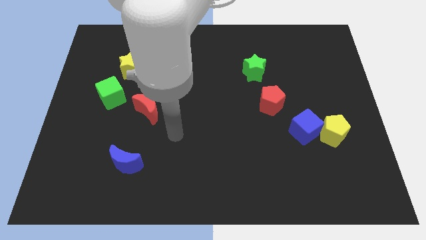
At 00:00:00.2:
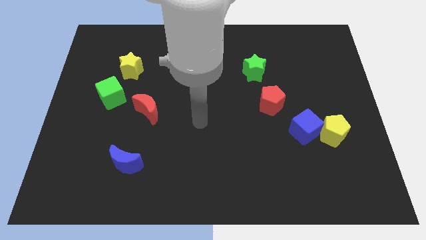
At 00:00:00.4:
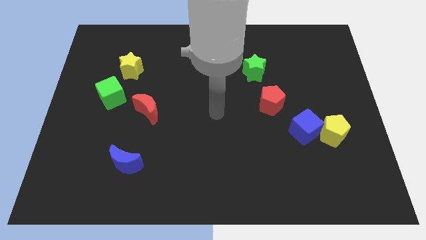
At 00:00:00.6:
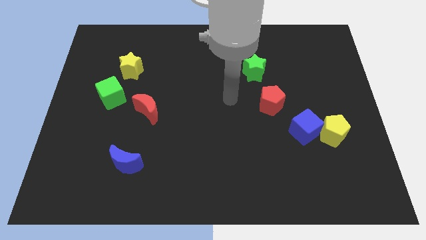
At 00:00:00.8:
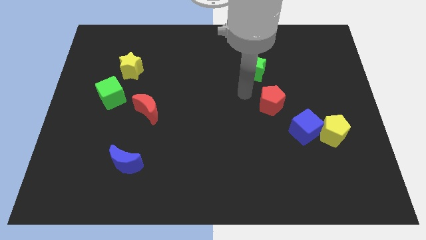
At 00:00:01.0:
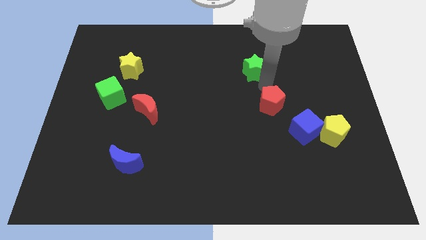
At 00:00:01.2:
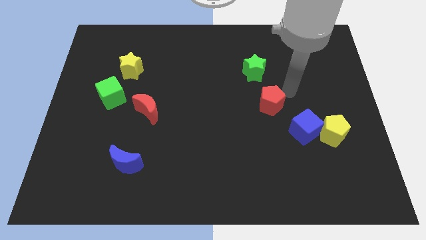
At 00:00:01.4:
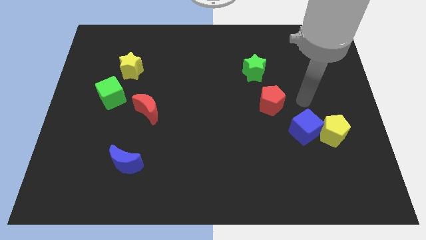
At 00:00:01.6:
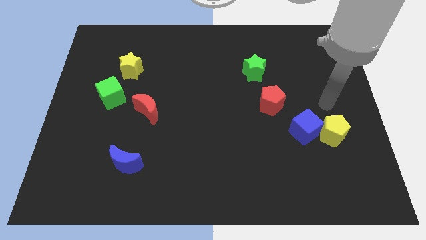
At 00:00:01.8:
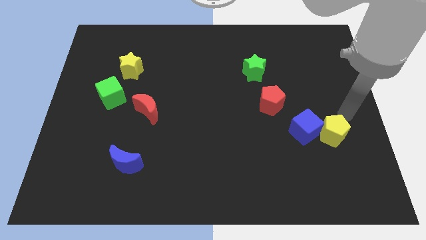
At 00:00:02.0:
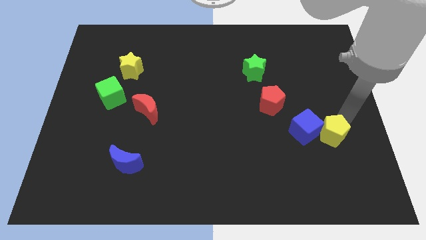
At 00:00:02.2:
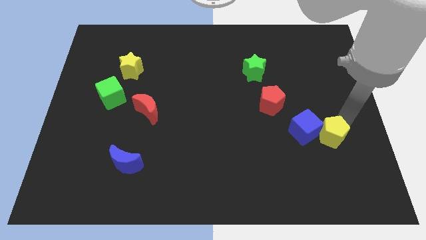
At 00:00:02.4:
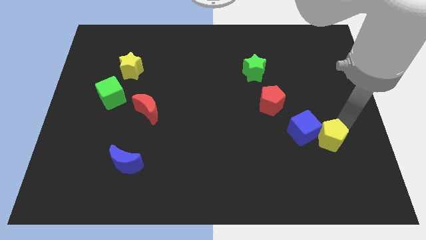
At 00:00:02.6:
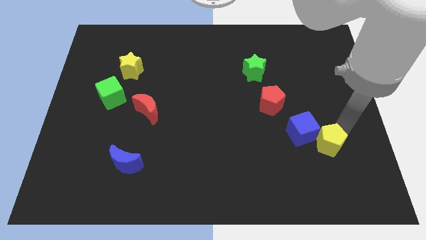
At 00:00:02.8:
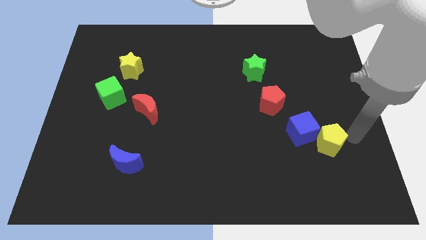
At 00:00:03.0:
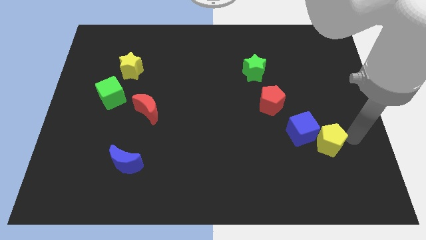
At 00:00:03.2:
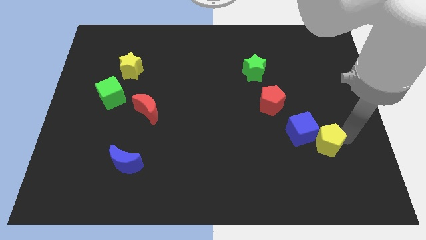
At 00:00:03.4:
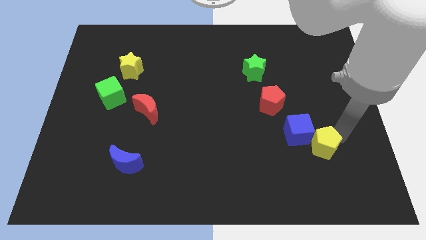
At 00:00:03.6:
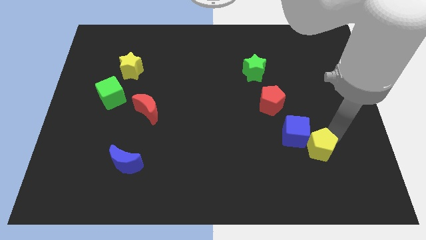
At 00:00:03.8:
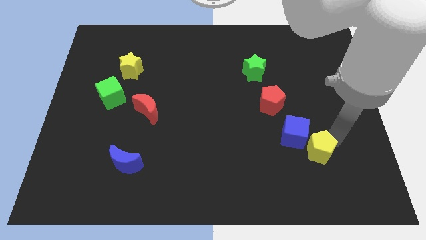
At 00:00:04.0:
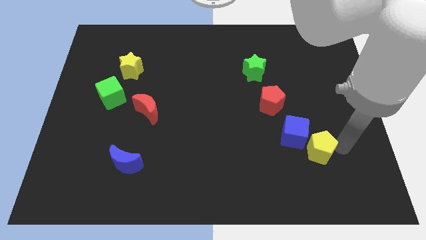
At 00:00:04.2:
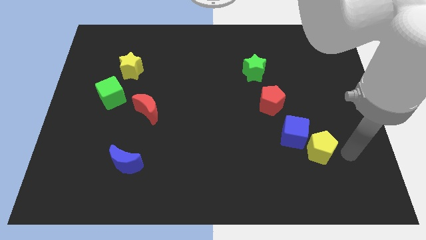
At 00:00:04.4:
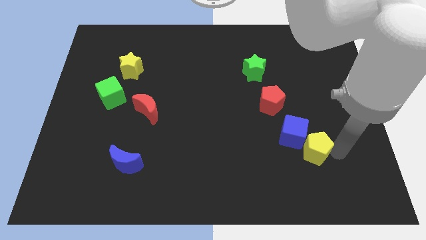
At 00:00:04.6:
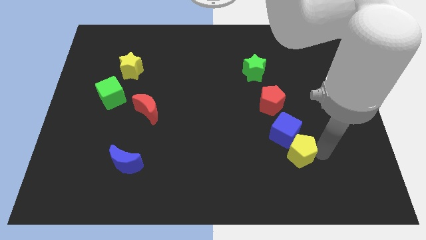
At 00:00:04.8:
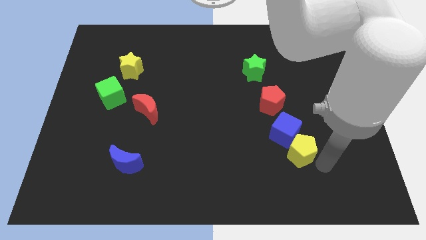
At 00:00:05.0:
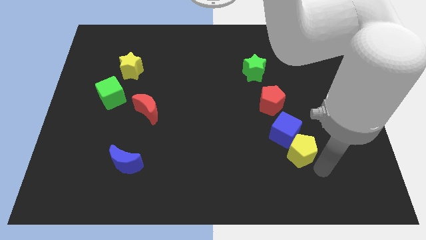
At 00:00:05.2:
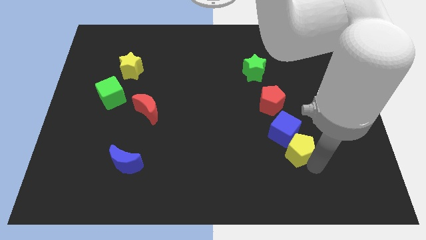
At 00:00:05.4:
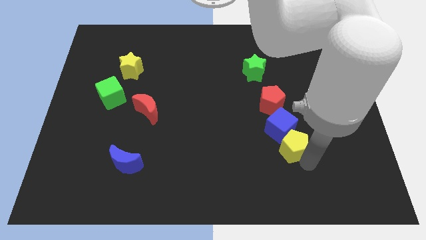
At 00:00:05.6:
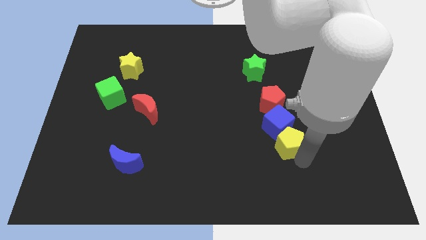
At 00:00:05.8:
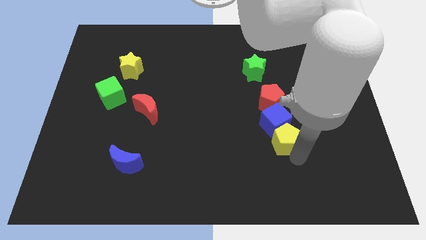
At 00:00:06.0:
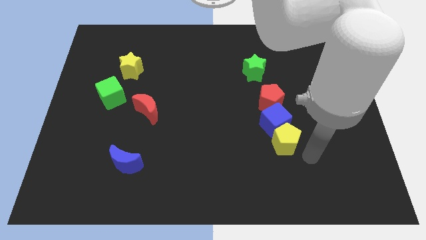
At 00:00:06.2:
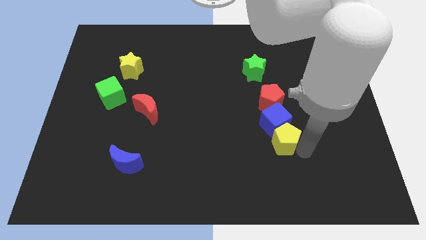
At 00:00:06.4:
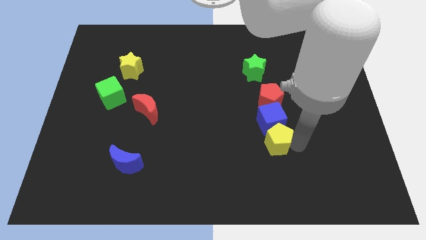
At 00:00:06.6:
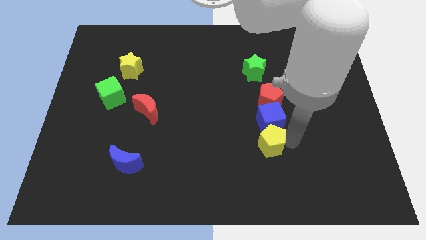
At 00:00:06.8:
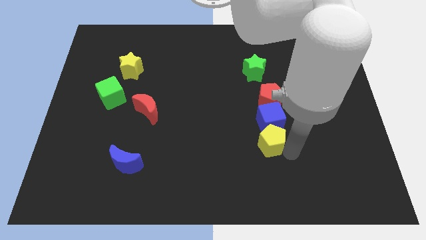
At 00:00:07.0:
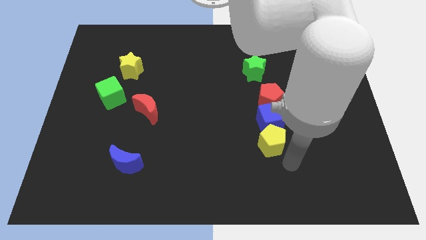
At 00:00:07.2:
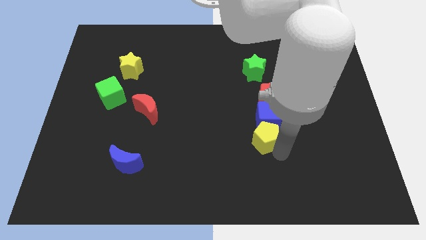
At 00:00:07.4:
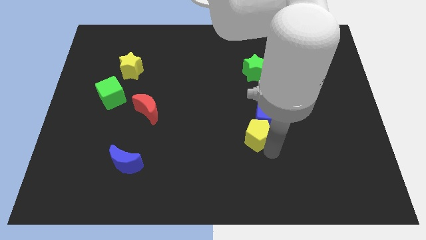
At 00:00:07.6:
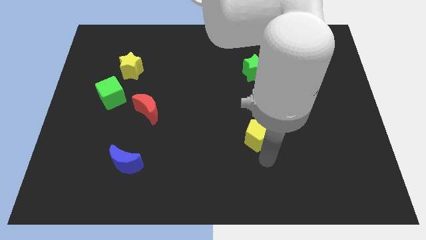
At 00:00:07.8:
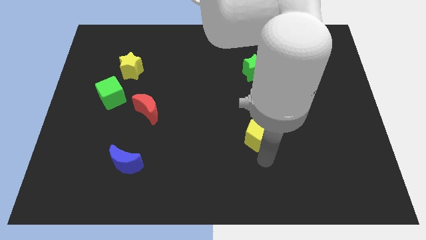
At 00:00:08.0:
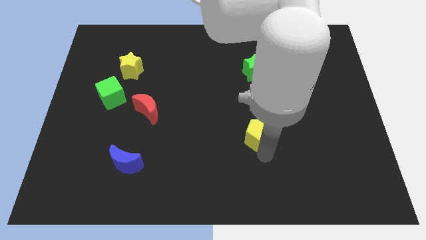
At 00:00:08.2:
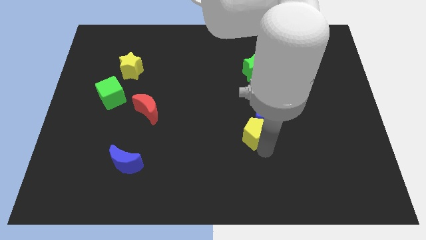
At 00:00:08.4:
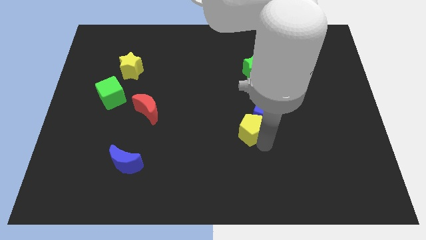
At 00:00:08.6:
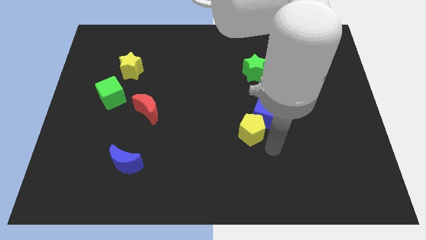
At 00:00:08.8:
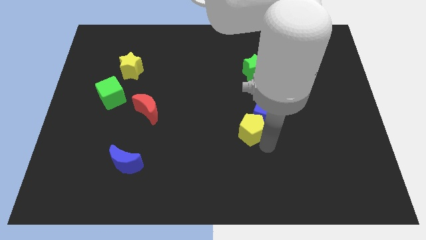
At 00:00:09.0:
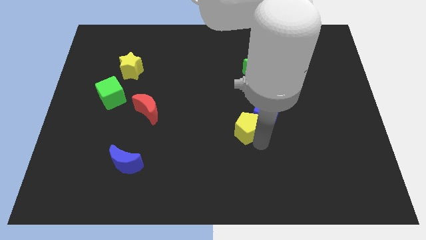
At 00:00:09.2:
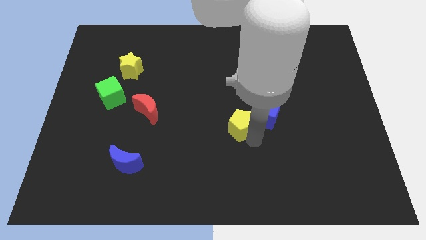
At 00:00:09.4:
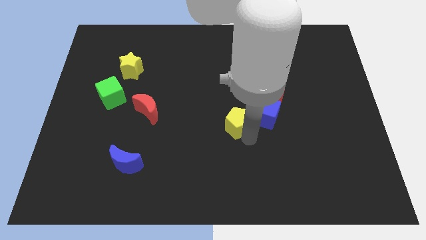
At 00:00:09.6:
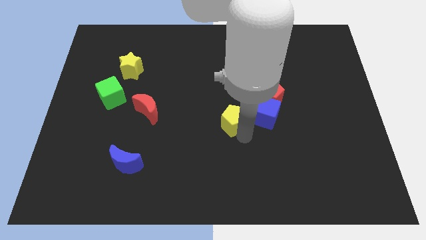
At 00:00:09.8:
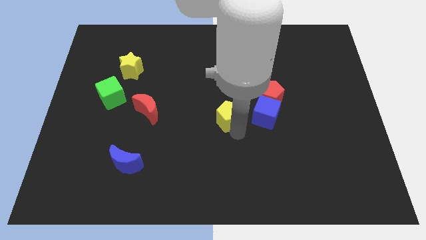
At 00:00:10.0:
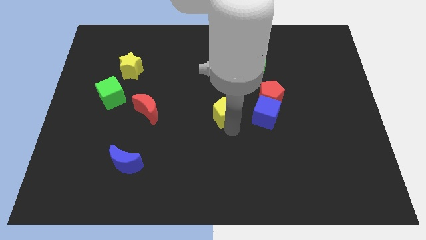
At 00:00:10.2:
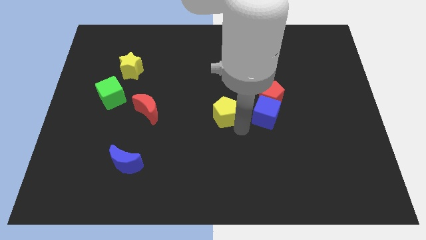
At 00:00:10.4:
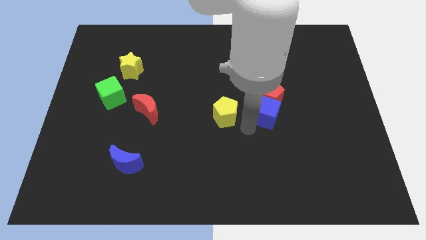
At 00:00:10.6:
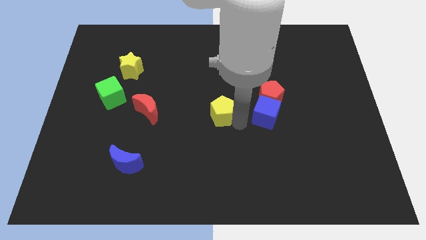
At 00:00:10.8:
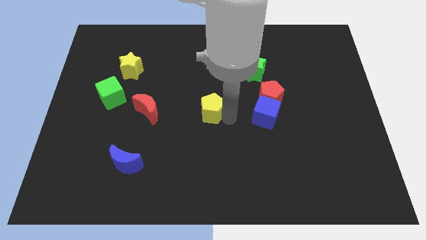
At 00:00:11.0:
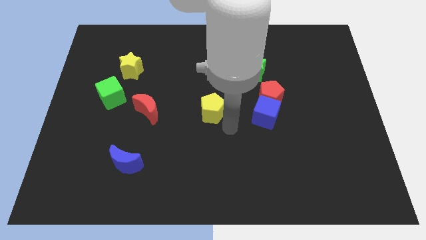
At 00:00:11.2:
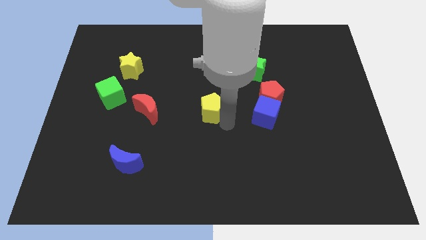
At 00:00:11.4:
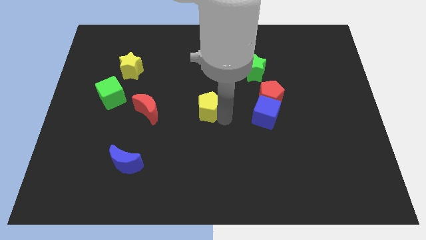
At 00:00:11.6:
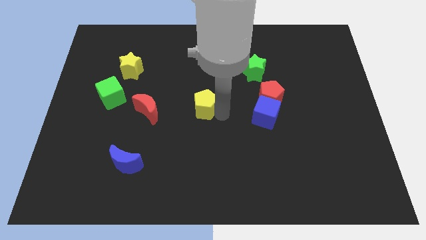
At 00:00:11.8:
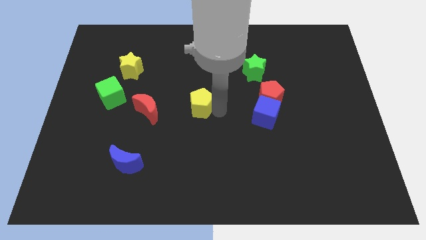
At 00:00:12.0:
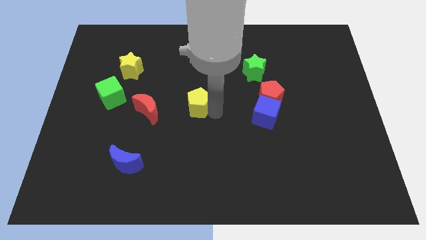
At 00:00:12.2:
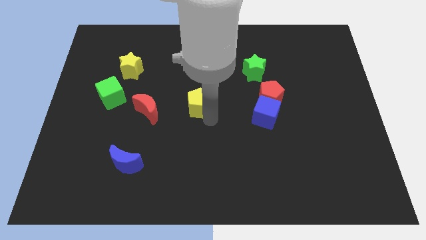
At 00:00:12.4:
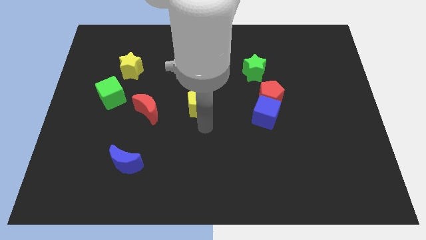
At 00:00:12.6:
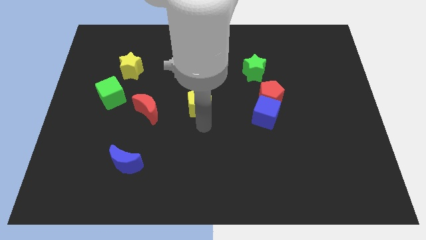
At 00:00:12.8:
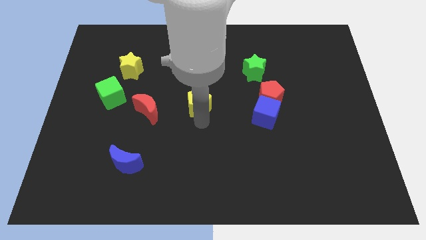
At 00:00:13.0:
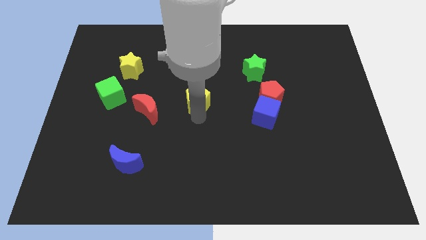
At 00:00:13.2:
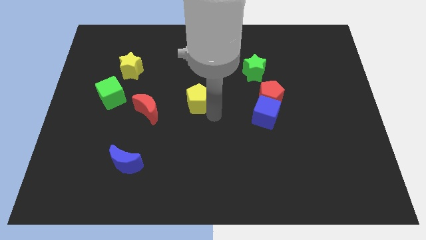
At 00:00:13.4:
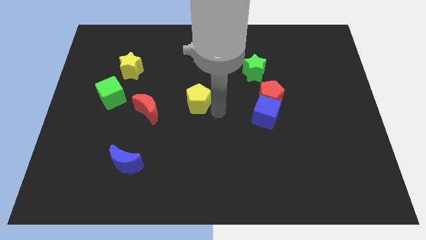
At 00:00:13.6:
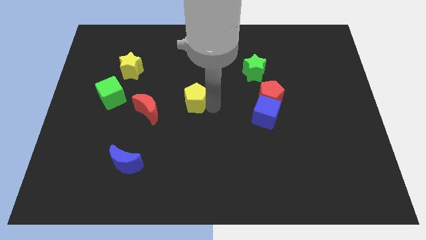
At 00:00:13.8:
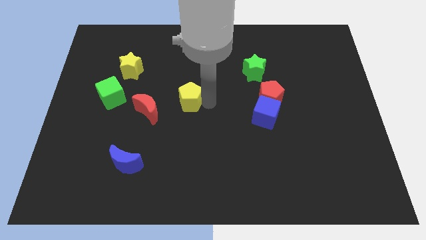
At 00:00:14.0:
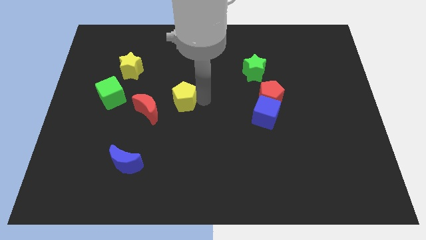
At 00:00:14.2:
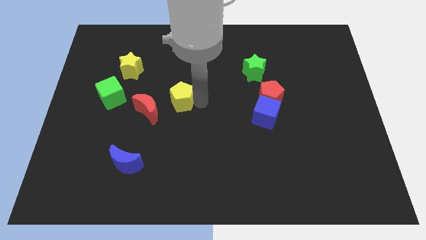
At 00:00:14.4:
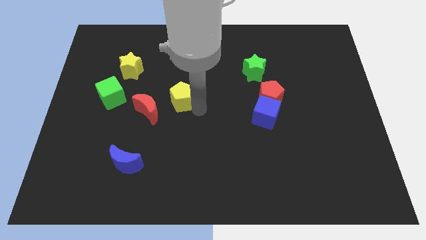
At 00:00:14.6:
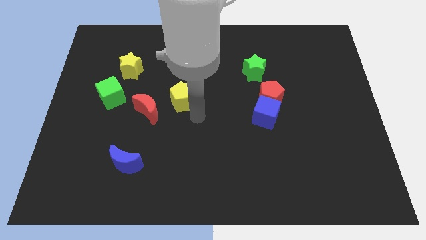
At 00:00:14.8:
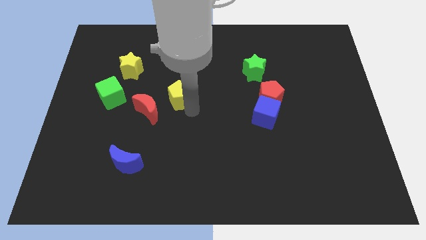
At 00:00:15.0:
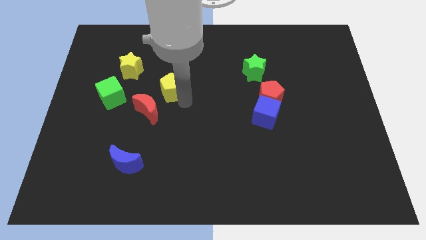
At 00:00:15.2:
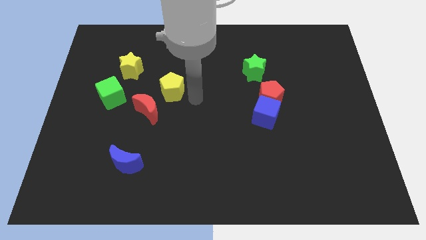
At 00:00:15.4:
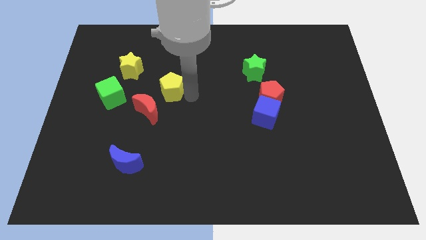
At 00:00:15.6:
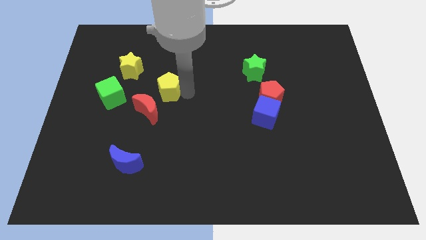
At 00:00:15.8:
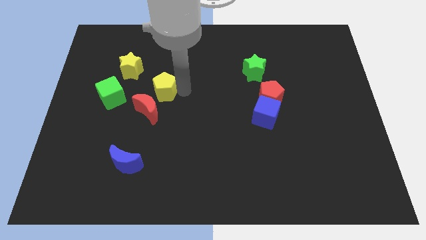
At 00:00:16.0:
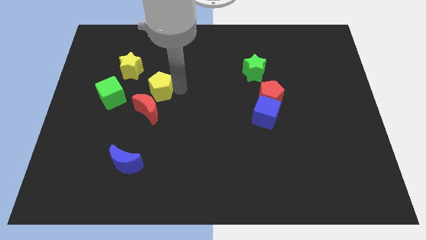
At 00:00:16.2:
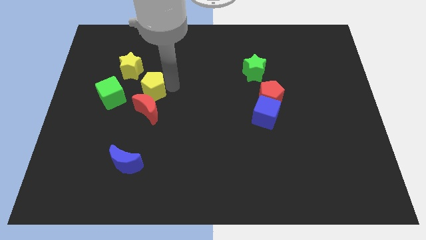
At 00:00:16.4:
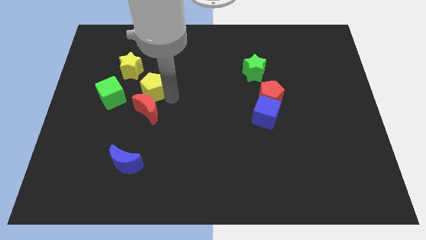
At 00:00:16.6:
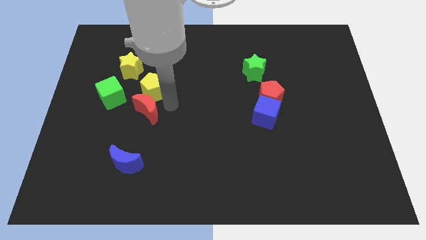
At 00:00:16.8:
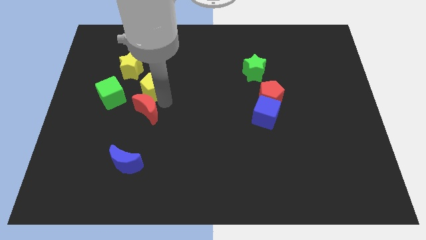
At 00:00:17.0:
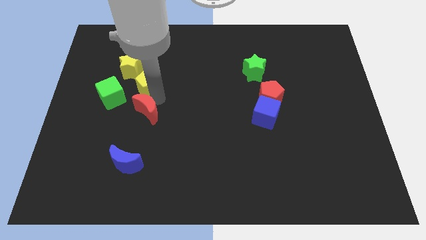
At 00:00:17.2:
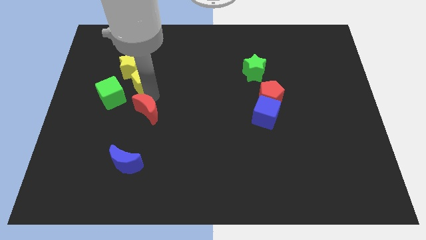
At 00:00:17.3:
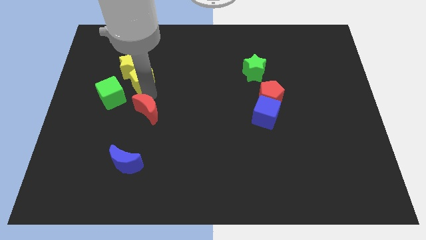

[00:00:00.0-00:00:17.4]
put the yellow pentagon next to the yellow star
